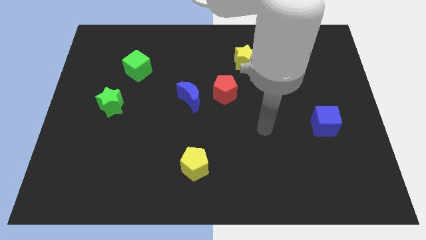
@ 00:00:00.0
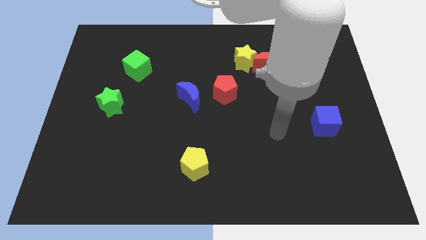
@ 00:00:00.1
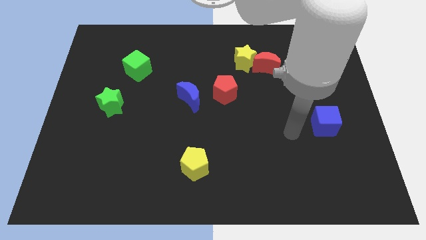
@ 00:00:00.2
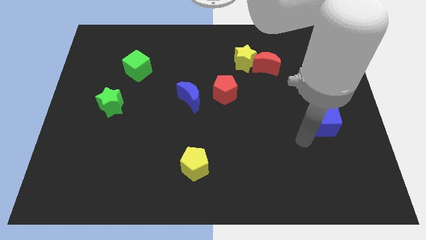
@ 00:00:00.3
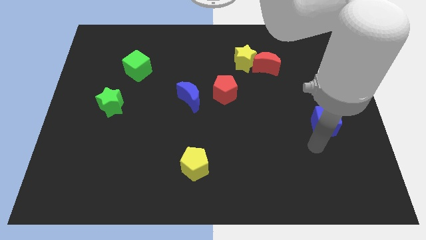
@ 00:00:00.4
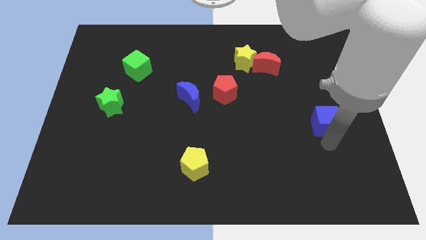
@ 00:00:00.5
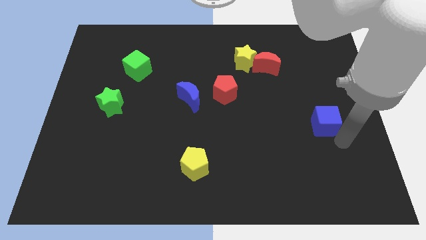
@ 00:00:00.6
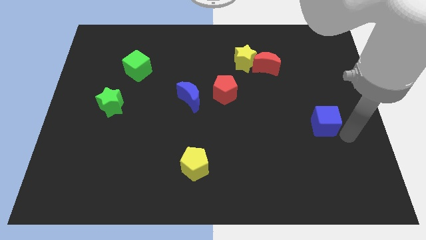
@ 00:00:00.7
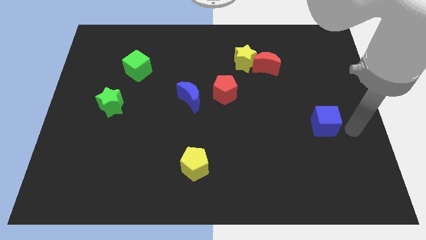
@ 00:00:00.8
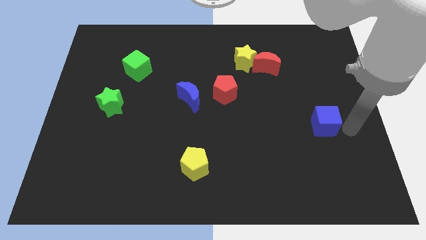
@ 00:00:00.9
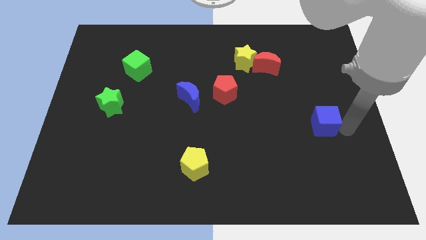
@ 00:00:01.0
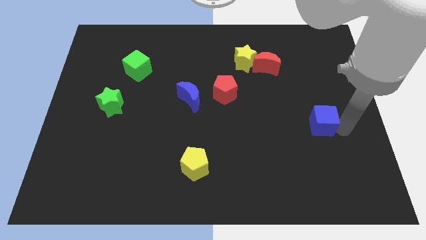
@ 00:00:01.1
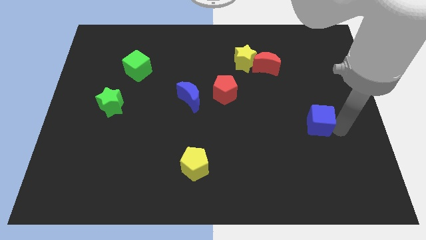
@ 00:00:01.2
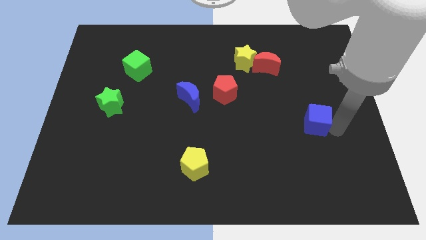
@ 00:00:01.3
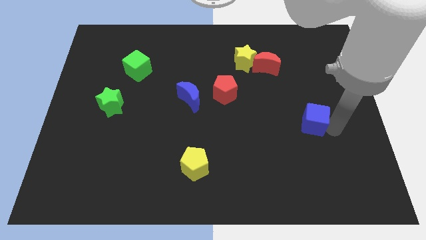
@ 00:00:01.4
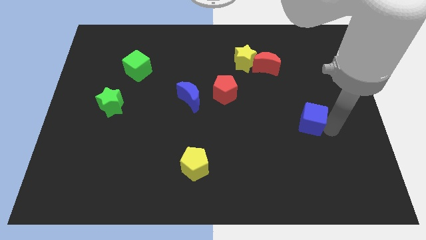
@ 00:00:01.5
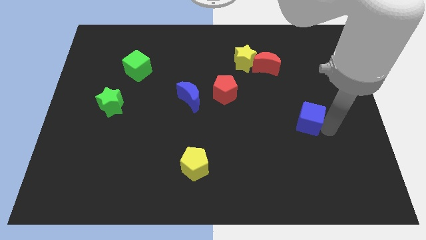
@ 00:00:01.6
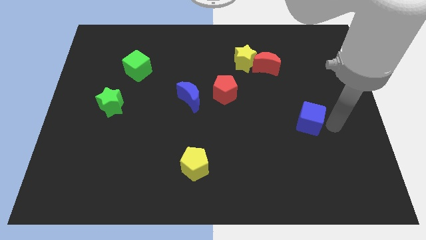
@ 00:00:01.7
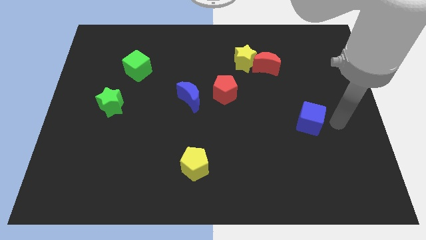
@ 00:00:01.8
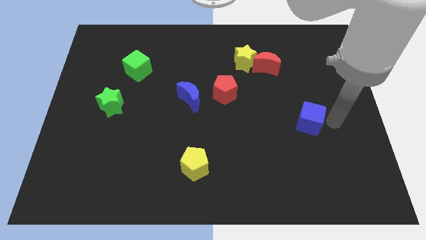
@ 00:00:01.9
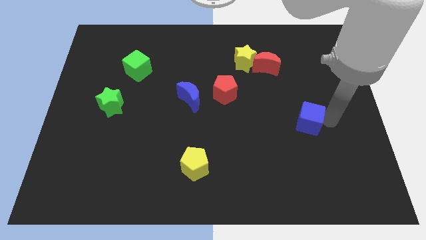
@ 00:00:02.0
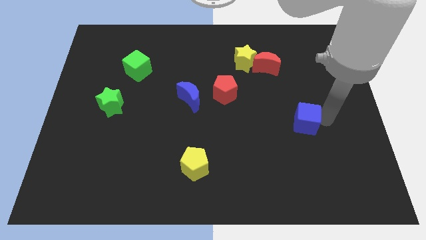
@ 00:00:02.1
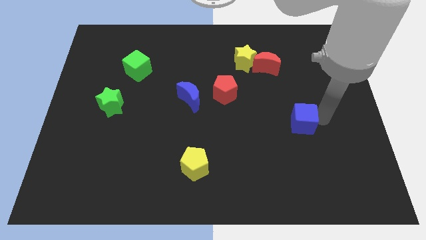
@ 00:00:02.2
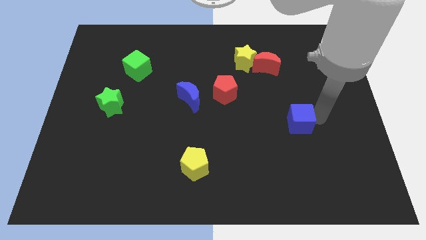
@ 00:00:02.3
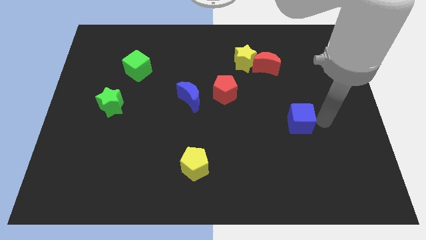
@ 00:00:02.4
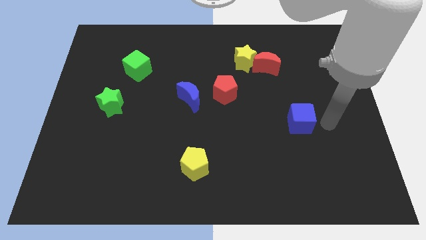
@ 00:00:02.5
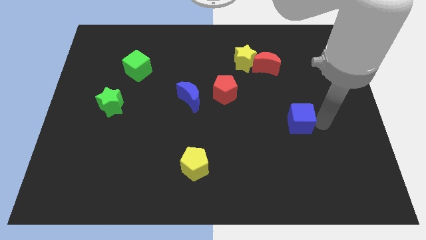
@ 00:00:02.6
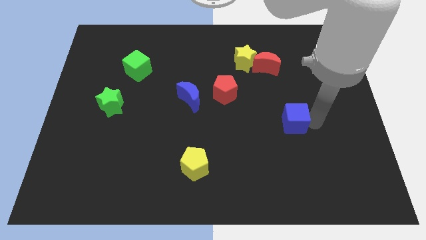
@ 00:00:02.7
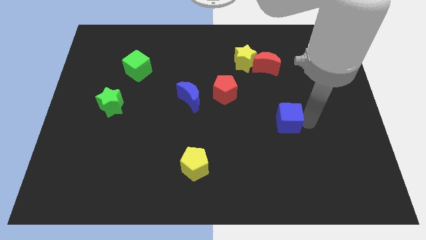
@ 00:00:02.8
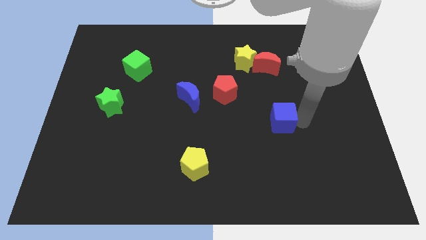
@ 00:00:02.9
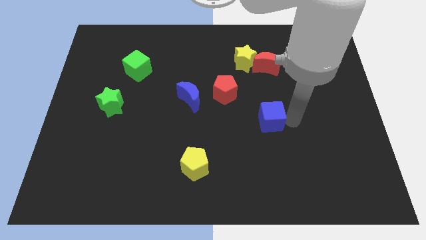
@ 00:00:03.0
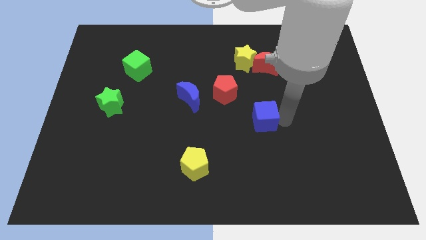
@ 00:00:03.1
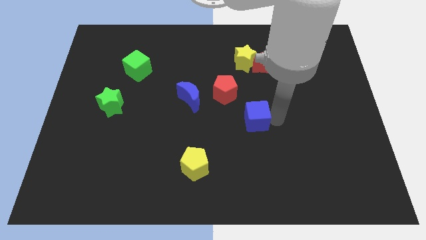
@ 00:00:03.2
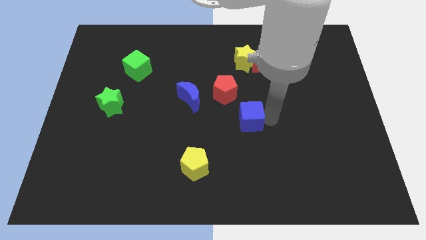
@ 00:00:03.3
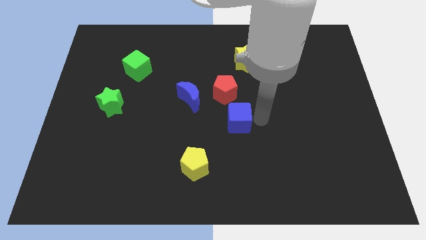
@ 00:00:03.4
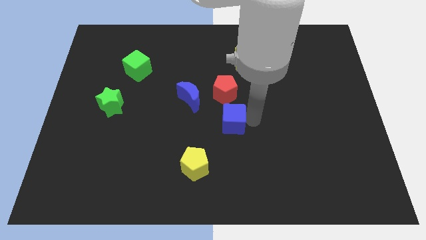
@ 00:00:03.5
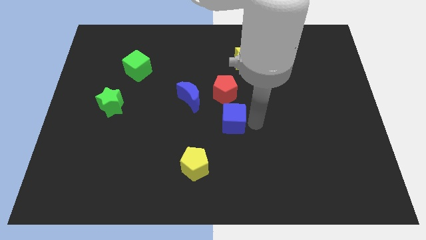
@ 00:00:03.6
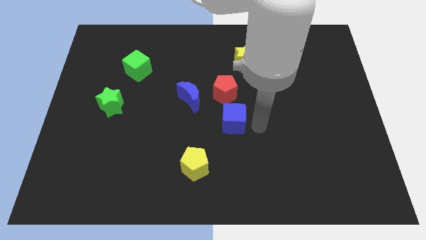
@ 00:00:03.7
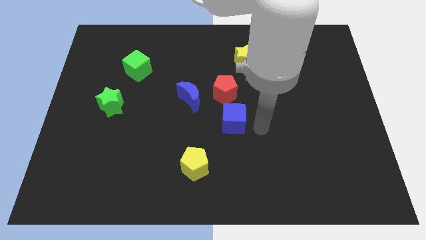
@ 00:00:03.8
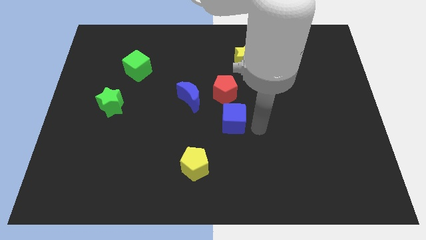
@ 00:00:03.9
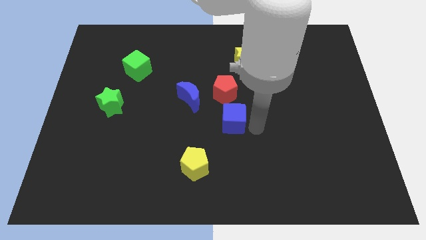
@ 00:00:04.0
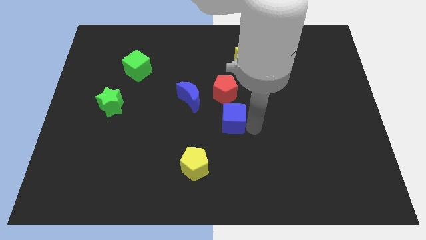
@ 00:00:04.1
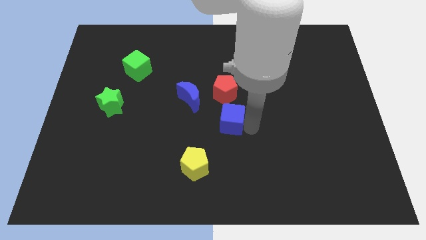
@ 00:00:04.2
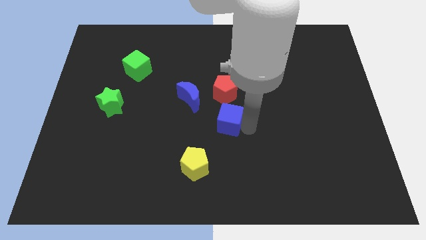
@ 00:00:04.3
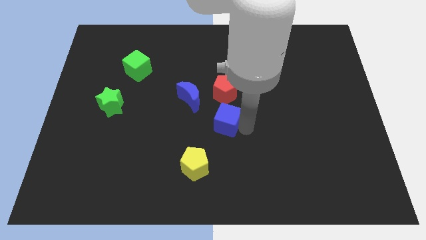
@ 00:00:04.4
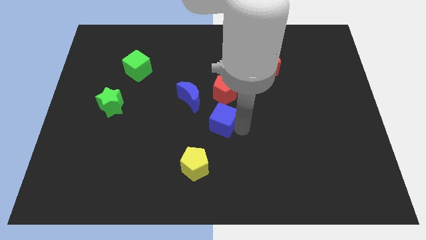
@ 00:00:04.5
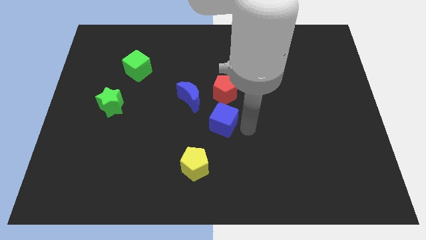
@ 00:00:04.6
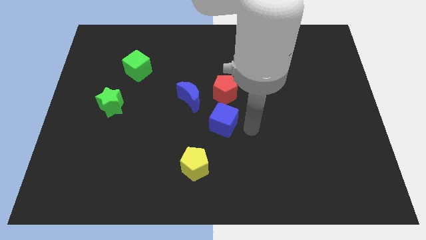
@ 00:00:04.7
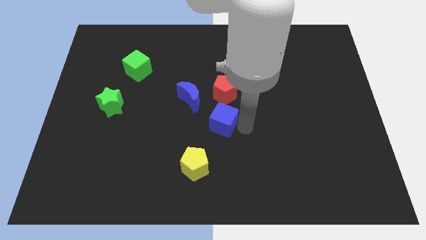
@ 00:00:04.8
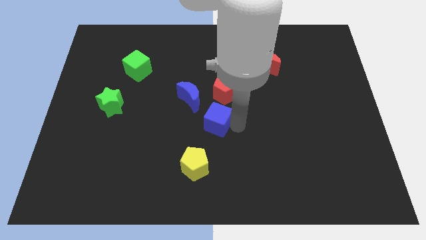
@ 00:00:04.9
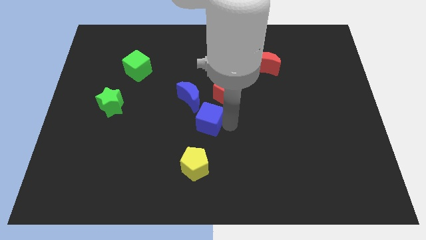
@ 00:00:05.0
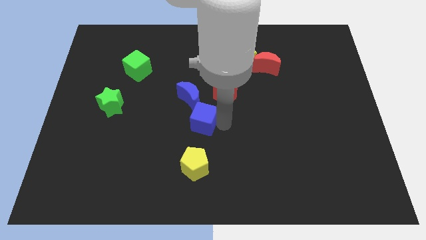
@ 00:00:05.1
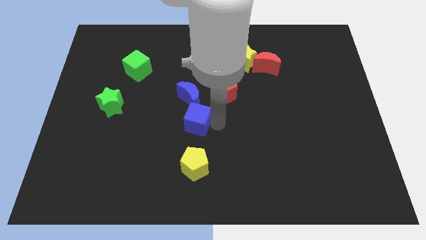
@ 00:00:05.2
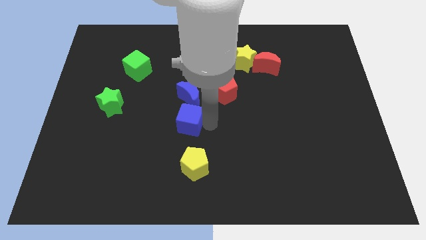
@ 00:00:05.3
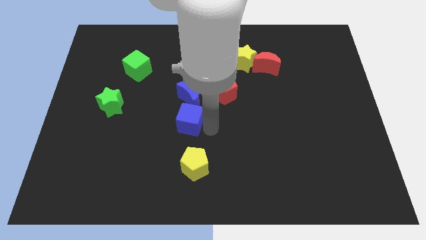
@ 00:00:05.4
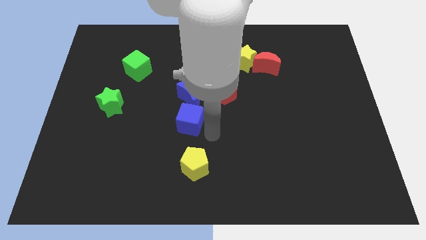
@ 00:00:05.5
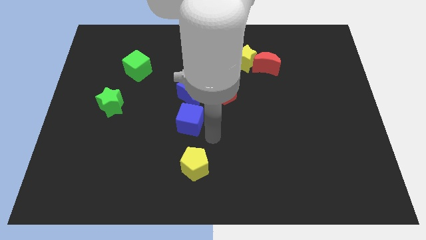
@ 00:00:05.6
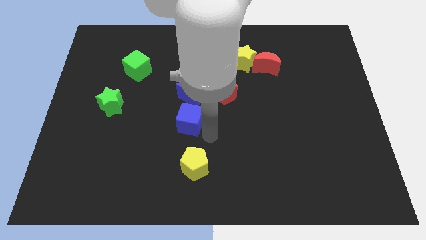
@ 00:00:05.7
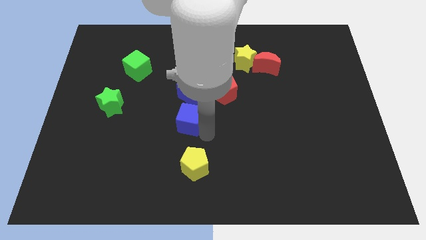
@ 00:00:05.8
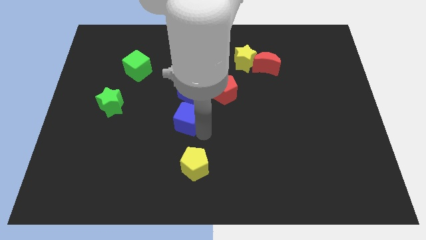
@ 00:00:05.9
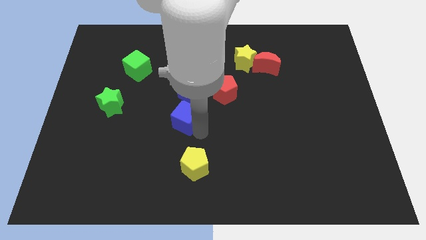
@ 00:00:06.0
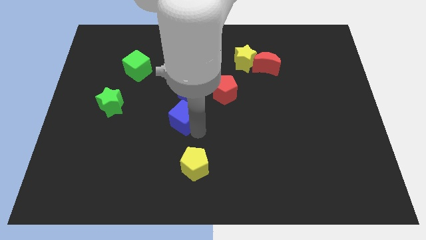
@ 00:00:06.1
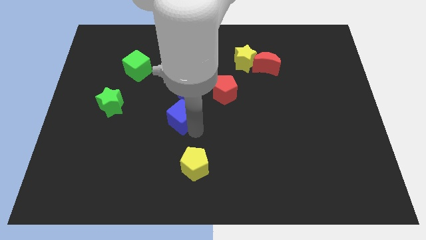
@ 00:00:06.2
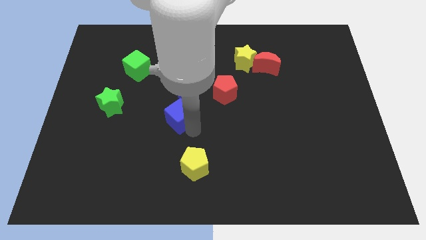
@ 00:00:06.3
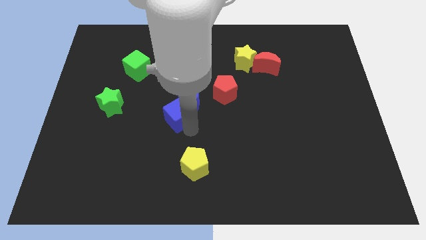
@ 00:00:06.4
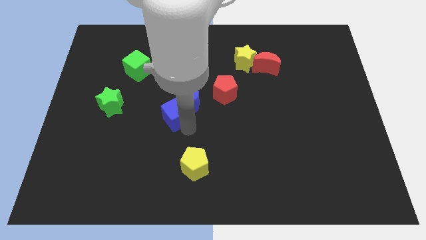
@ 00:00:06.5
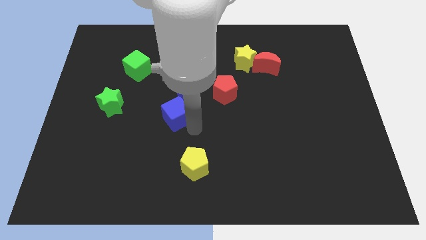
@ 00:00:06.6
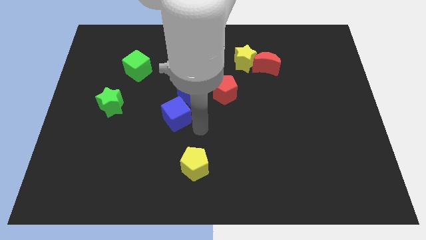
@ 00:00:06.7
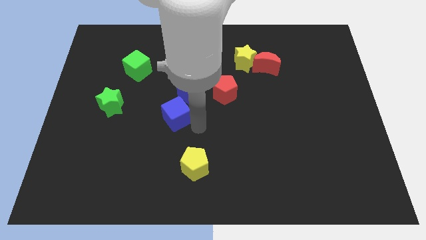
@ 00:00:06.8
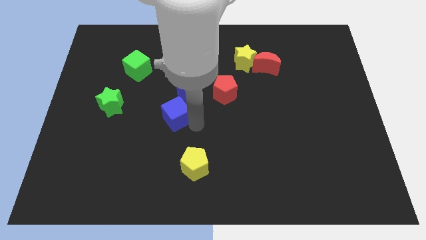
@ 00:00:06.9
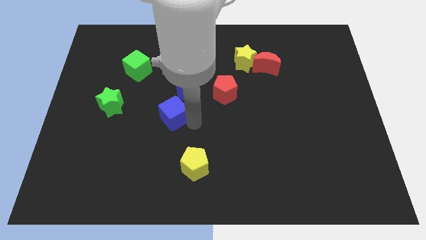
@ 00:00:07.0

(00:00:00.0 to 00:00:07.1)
put the blue cube just right of the green star
